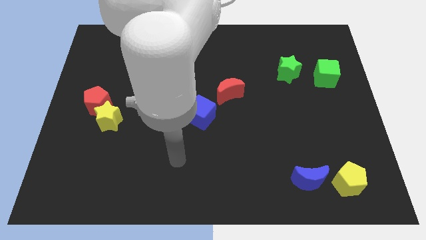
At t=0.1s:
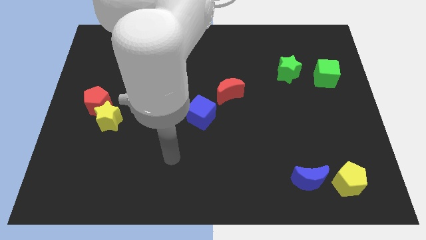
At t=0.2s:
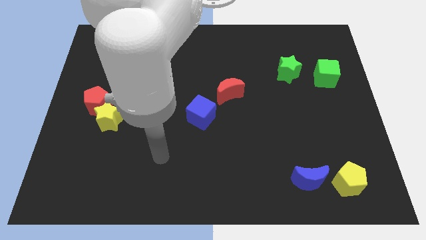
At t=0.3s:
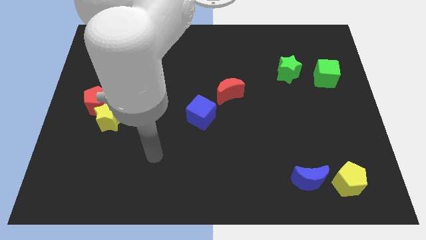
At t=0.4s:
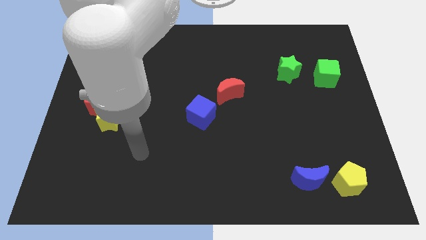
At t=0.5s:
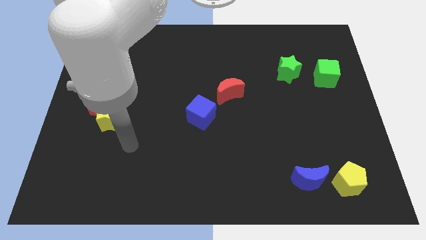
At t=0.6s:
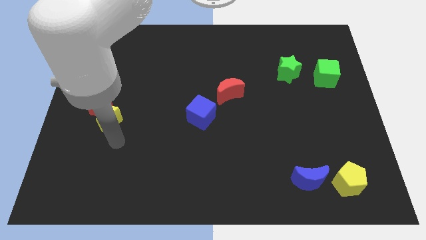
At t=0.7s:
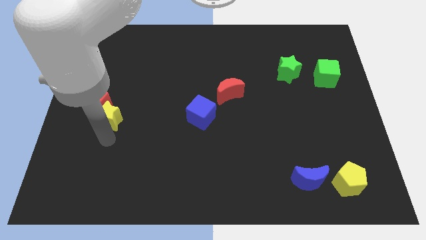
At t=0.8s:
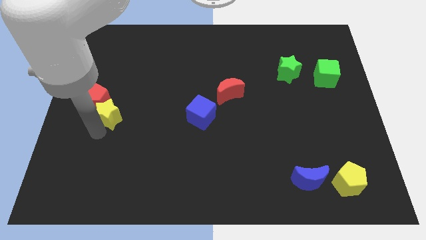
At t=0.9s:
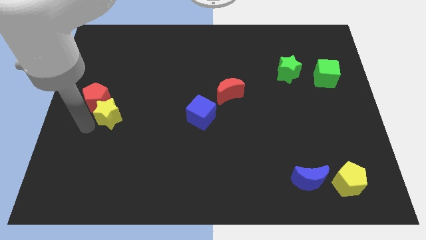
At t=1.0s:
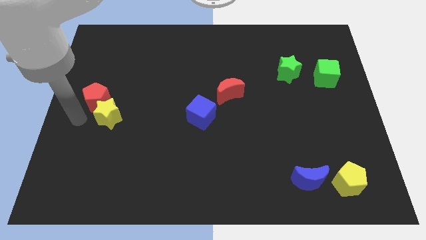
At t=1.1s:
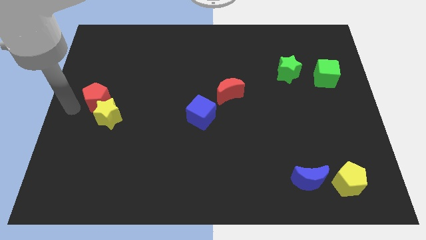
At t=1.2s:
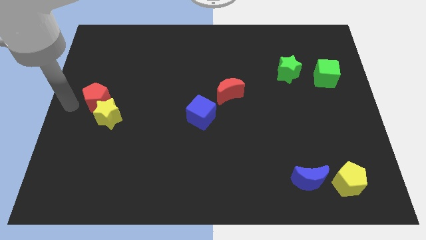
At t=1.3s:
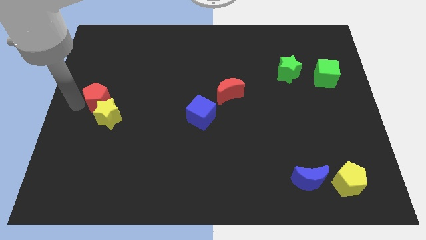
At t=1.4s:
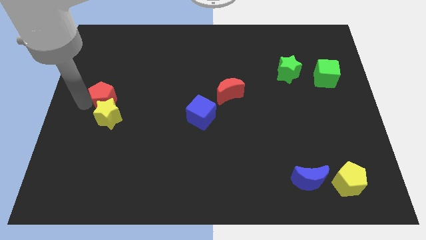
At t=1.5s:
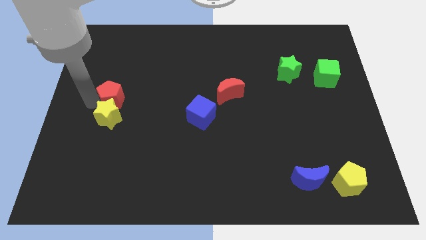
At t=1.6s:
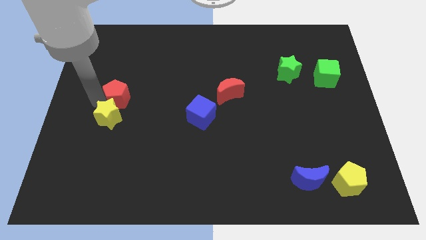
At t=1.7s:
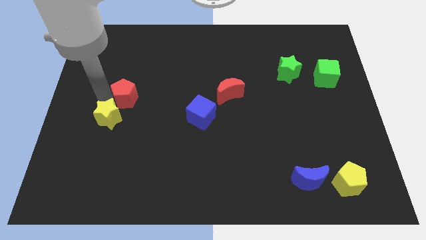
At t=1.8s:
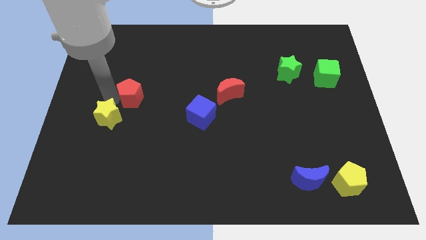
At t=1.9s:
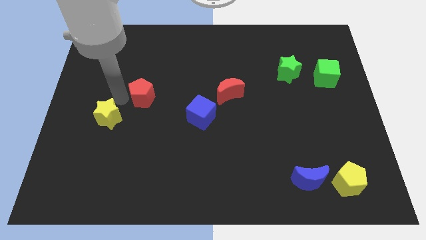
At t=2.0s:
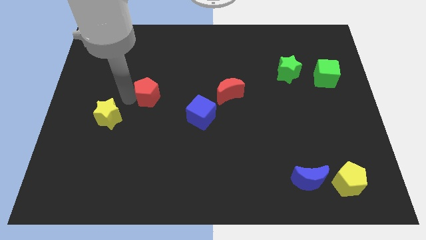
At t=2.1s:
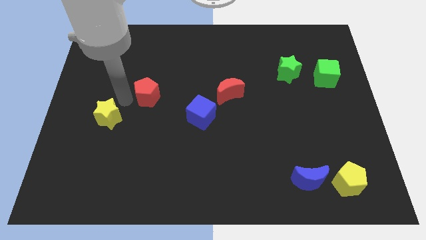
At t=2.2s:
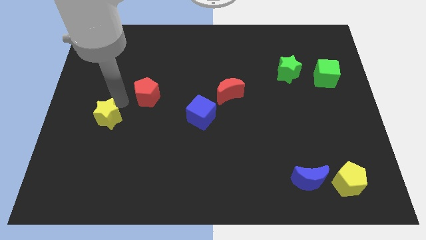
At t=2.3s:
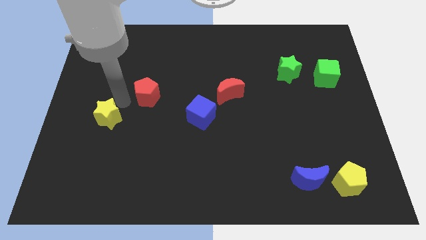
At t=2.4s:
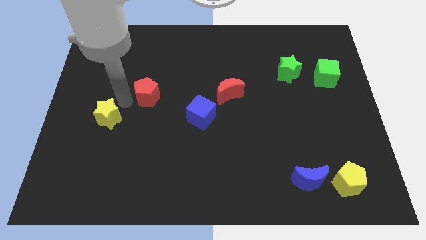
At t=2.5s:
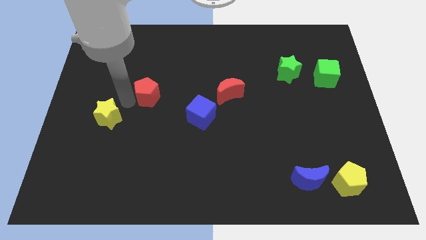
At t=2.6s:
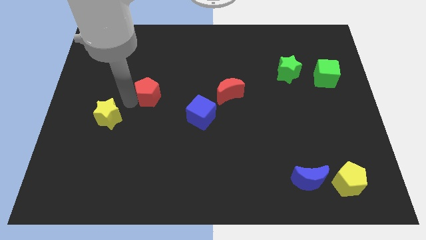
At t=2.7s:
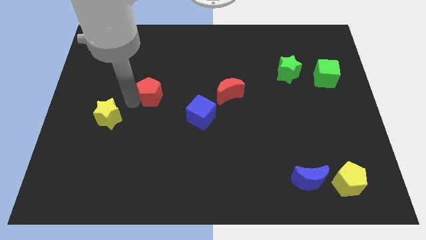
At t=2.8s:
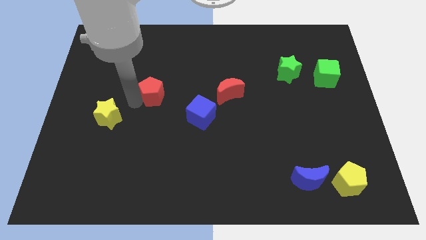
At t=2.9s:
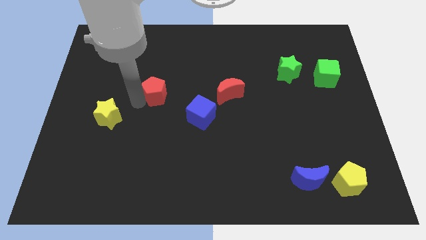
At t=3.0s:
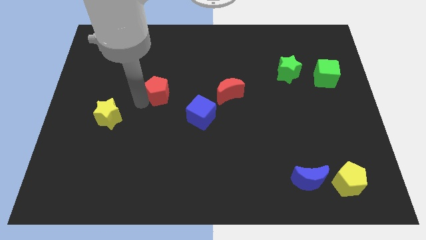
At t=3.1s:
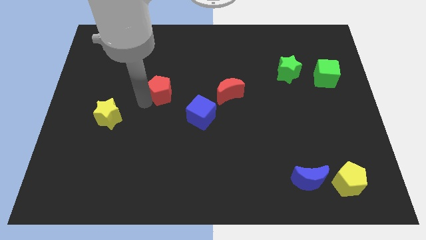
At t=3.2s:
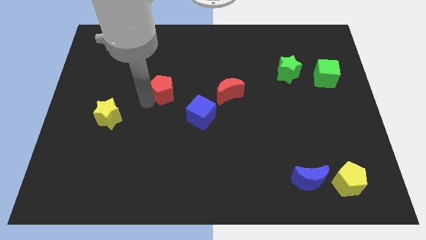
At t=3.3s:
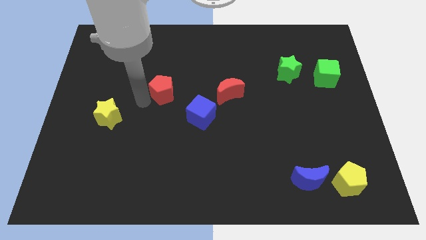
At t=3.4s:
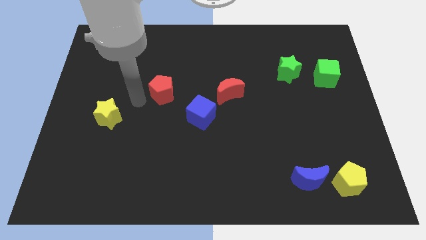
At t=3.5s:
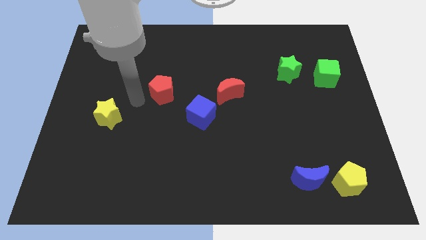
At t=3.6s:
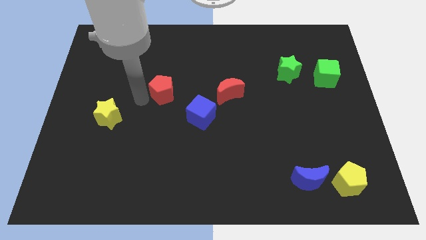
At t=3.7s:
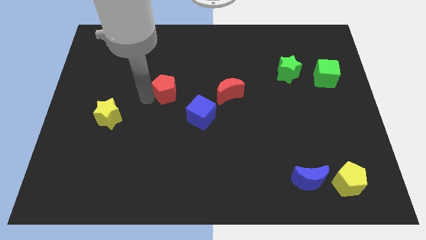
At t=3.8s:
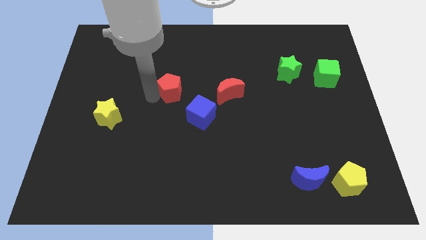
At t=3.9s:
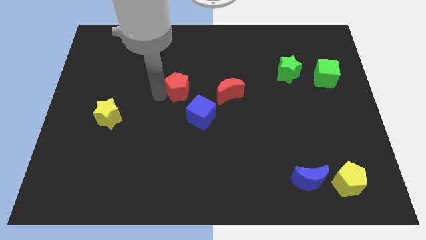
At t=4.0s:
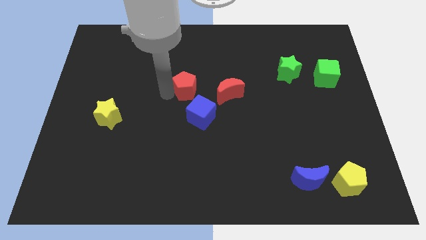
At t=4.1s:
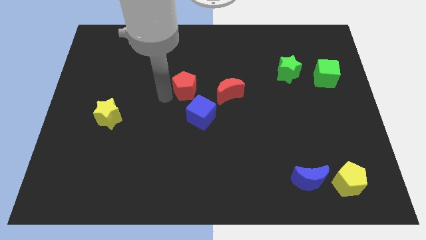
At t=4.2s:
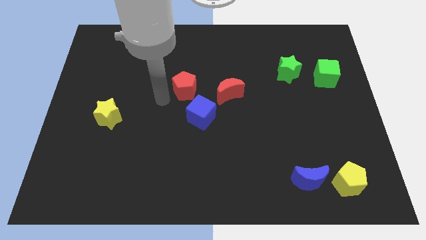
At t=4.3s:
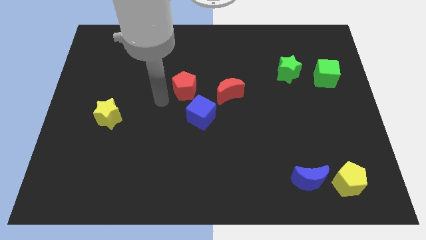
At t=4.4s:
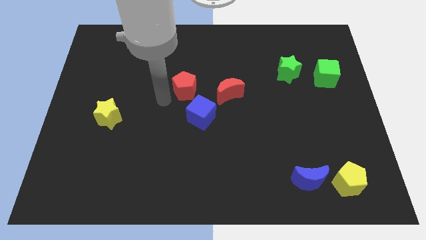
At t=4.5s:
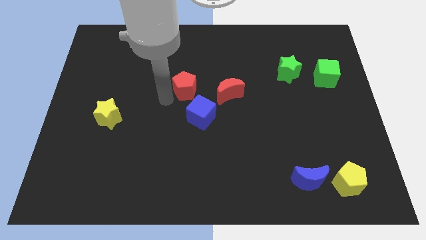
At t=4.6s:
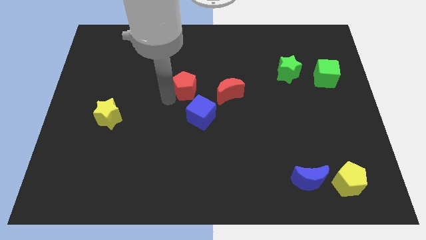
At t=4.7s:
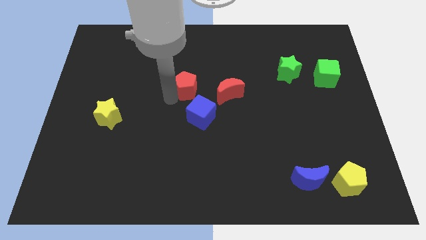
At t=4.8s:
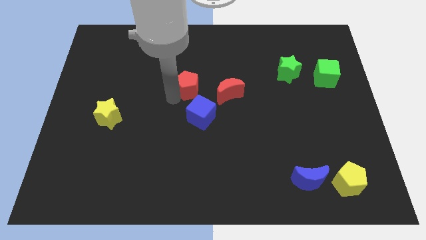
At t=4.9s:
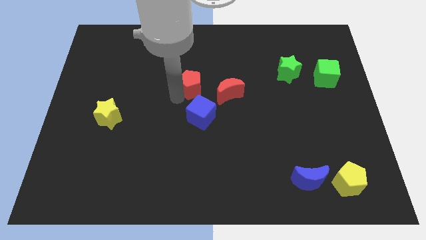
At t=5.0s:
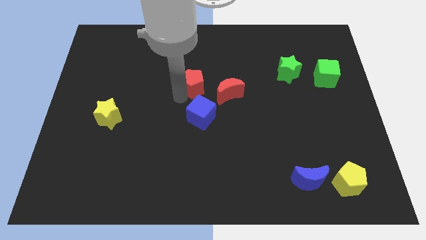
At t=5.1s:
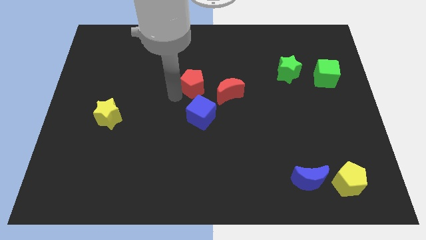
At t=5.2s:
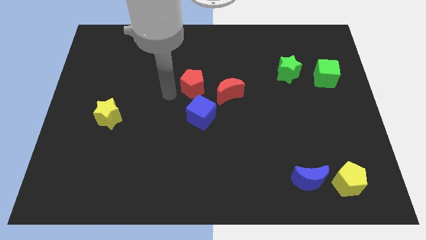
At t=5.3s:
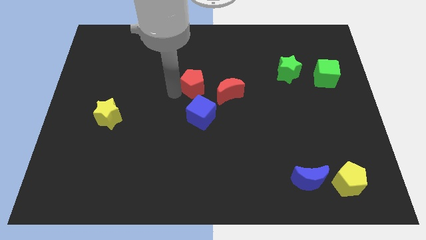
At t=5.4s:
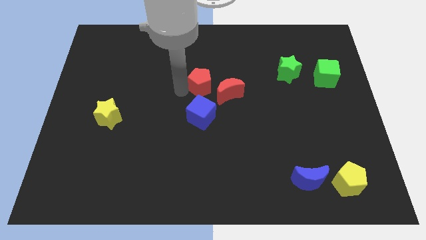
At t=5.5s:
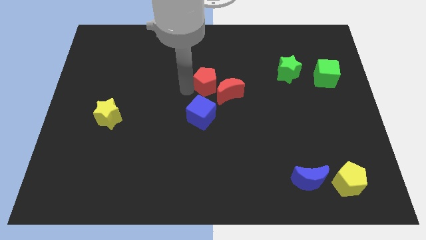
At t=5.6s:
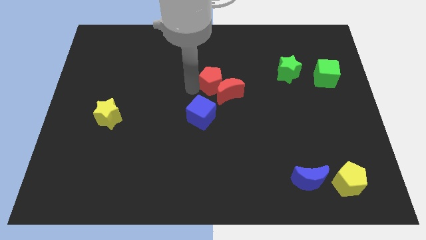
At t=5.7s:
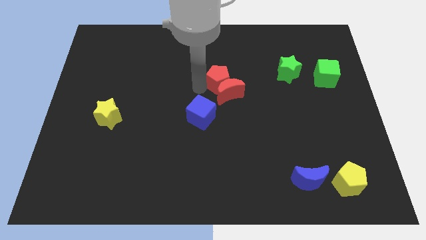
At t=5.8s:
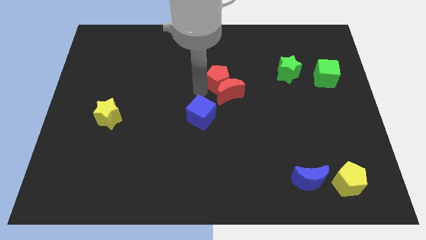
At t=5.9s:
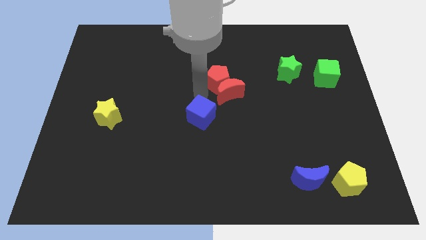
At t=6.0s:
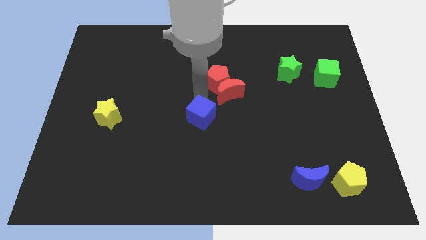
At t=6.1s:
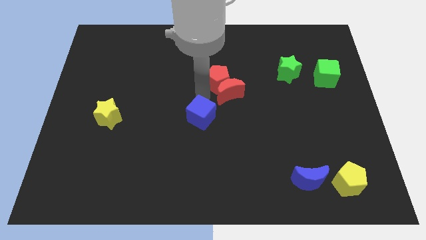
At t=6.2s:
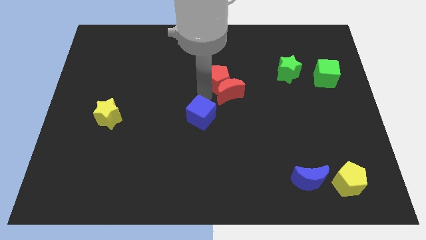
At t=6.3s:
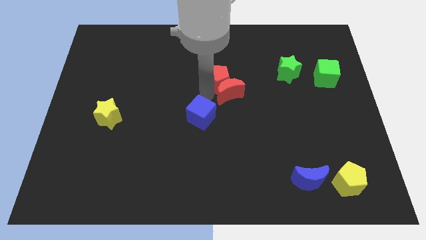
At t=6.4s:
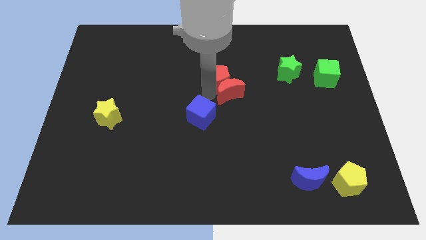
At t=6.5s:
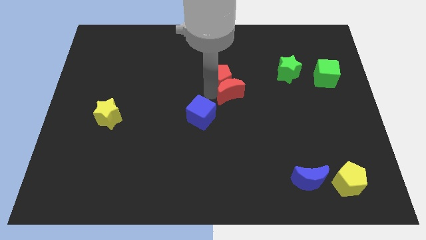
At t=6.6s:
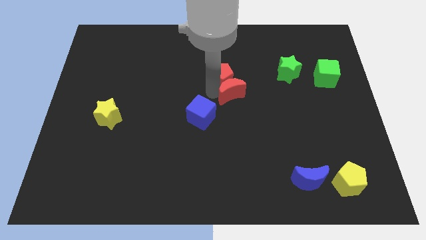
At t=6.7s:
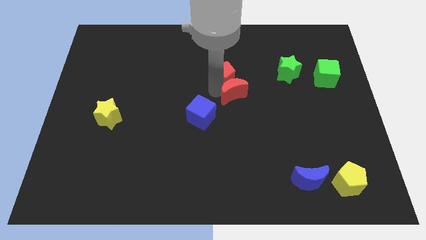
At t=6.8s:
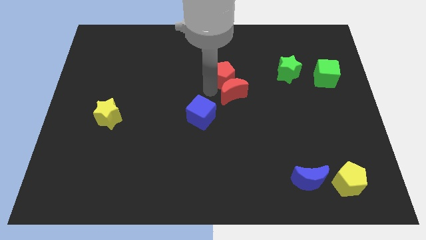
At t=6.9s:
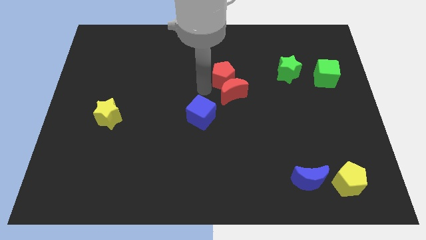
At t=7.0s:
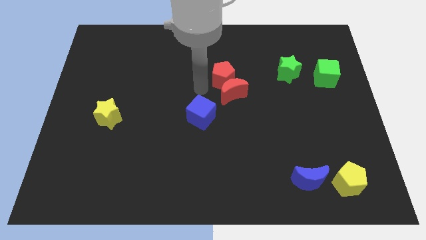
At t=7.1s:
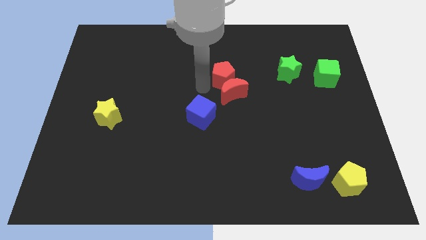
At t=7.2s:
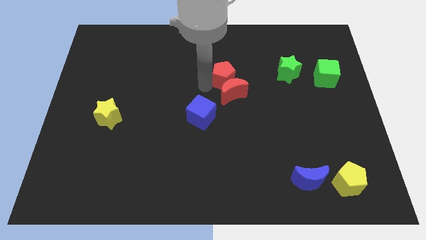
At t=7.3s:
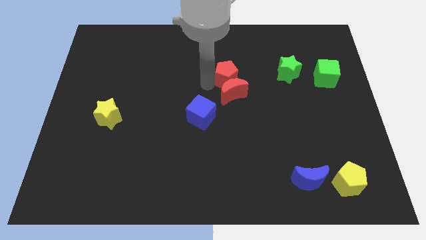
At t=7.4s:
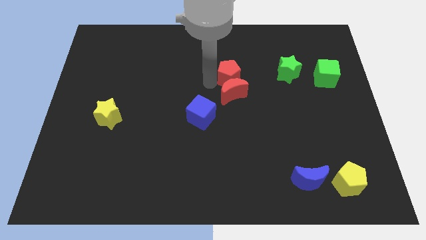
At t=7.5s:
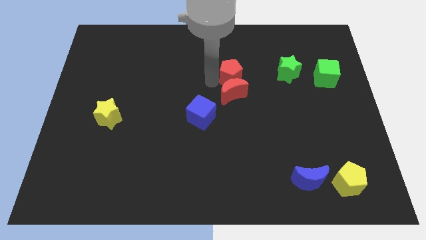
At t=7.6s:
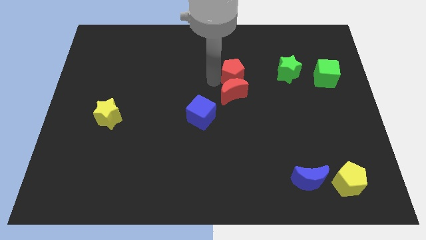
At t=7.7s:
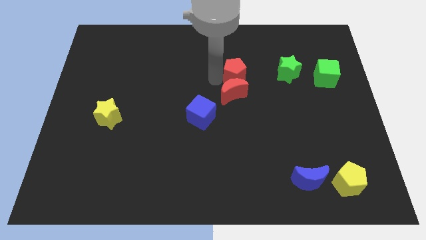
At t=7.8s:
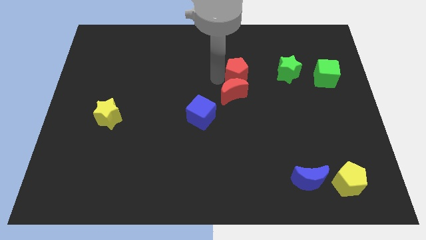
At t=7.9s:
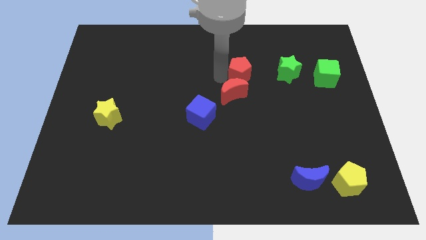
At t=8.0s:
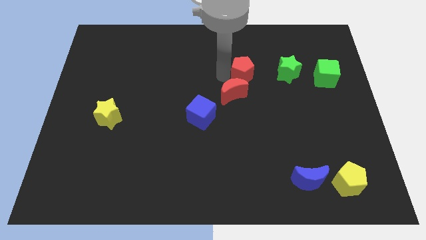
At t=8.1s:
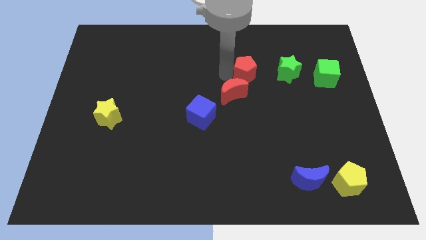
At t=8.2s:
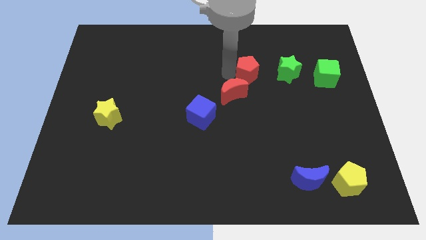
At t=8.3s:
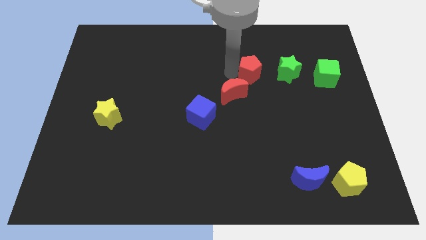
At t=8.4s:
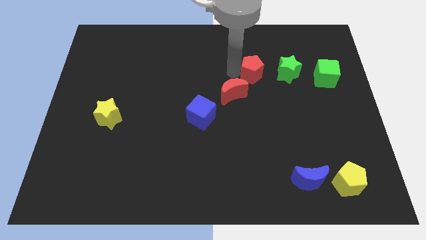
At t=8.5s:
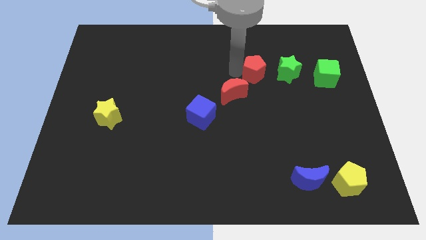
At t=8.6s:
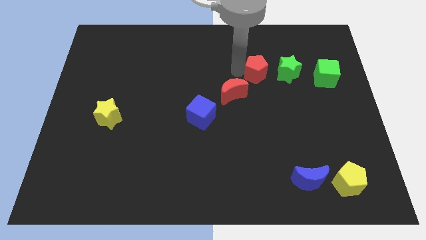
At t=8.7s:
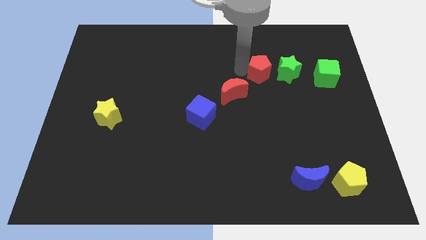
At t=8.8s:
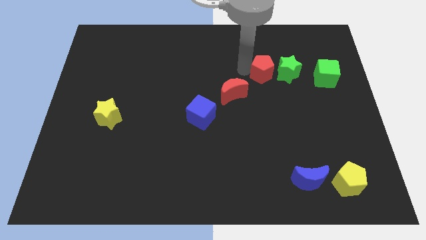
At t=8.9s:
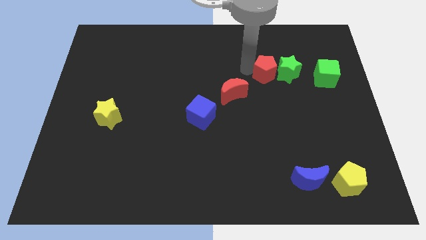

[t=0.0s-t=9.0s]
move the red pentagon next to the green star
